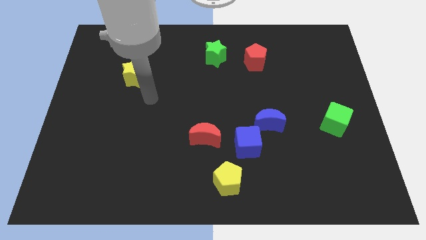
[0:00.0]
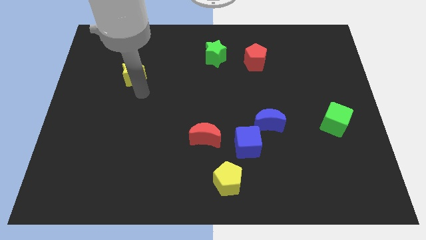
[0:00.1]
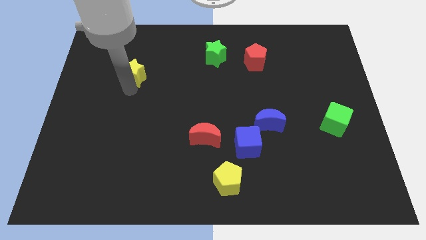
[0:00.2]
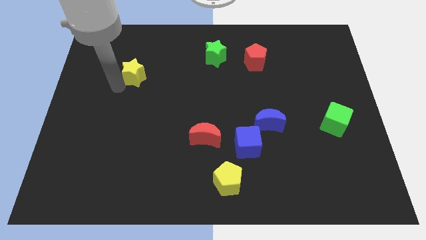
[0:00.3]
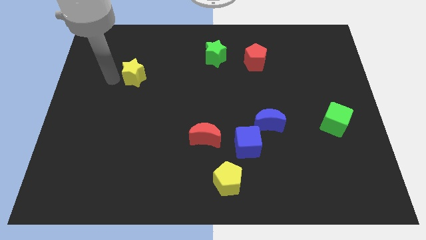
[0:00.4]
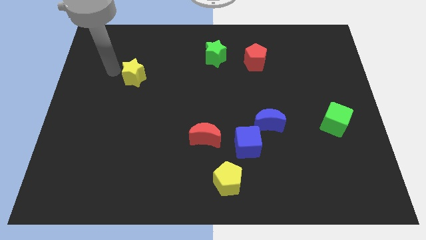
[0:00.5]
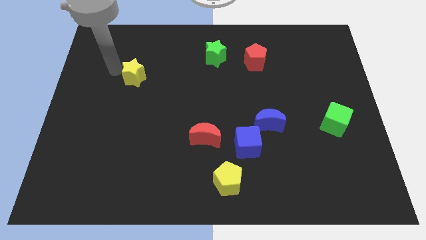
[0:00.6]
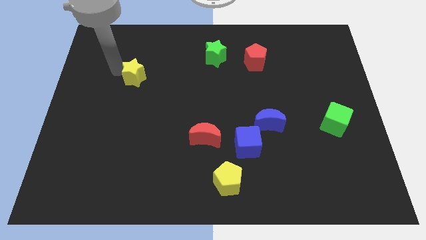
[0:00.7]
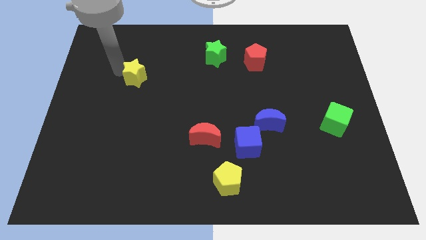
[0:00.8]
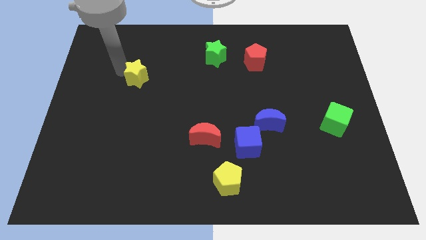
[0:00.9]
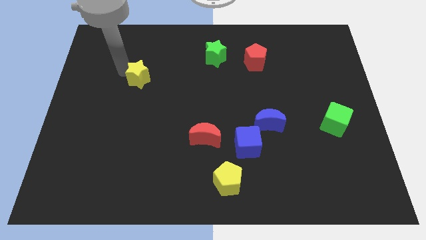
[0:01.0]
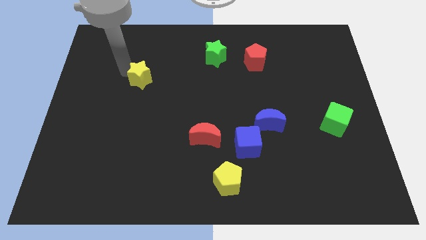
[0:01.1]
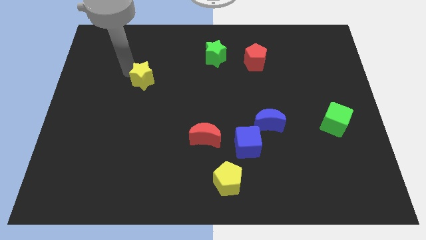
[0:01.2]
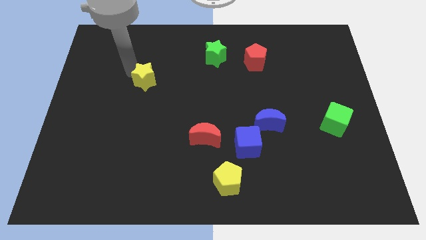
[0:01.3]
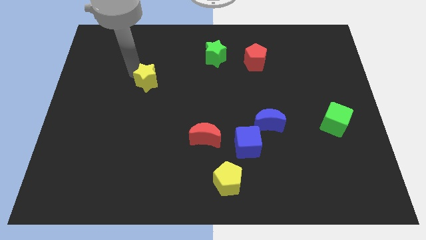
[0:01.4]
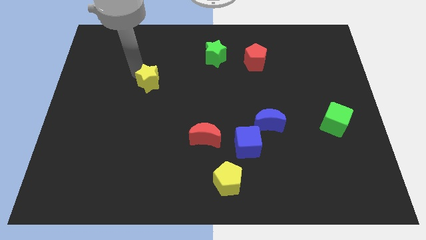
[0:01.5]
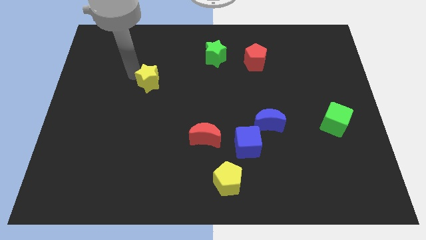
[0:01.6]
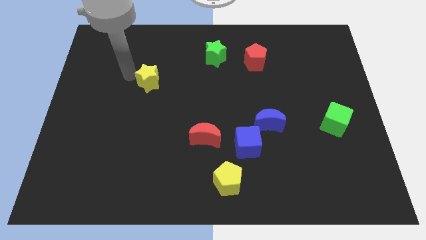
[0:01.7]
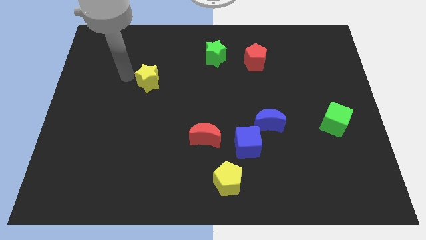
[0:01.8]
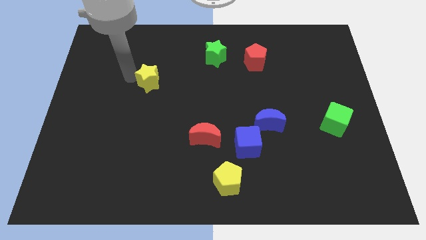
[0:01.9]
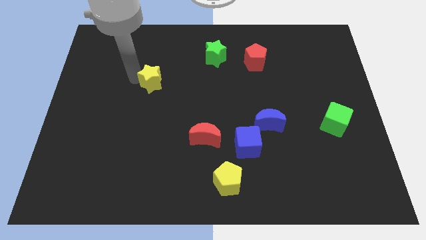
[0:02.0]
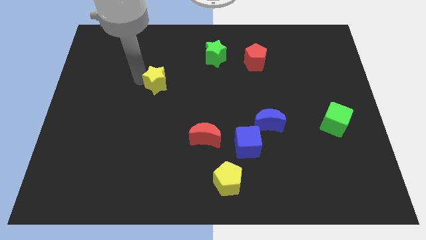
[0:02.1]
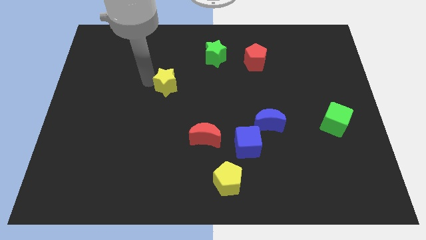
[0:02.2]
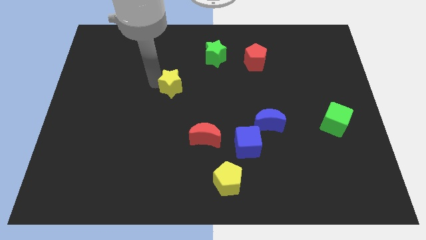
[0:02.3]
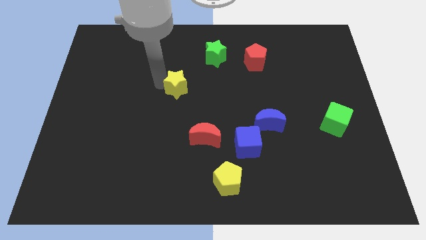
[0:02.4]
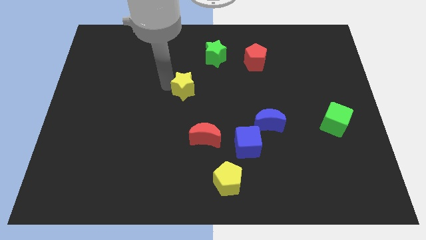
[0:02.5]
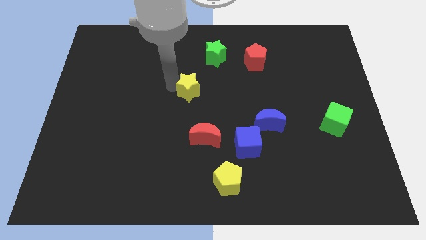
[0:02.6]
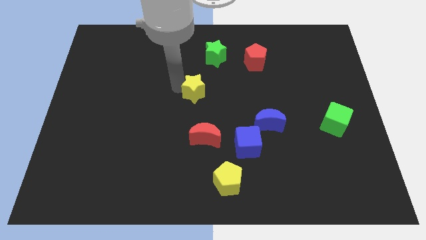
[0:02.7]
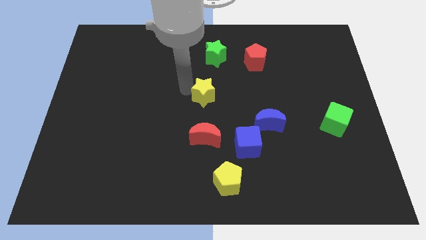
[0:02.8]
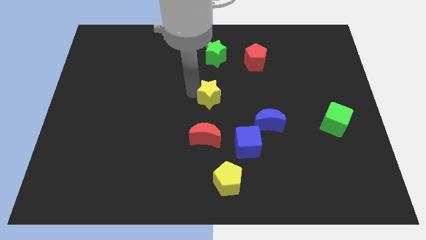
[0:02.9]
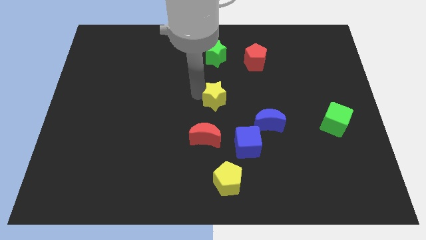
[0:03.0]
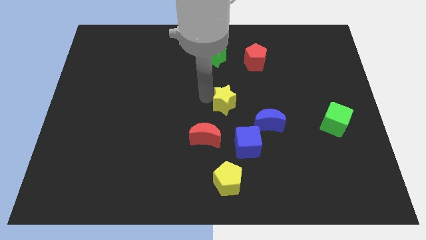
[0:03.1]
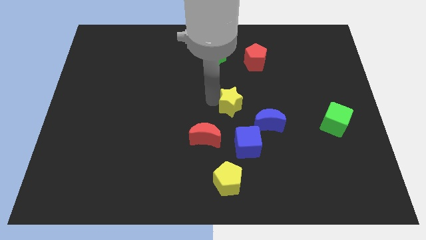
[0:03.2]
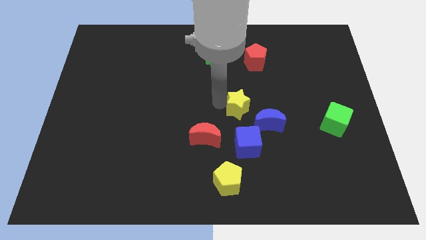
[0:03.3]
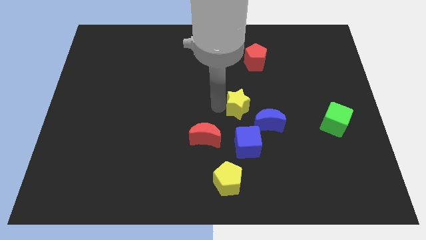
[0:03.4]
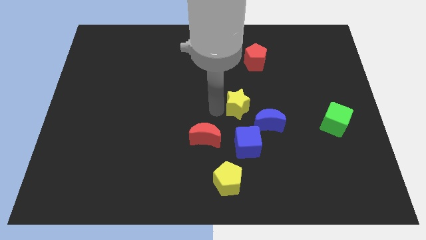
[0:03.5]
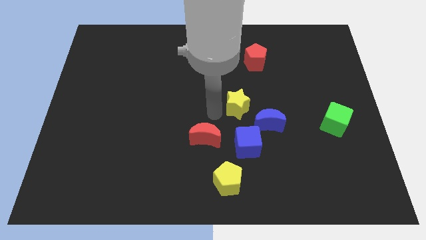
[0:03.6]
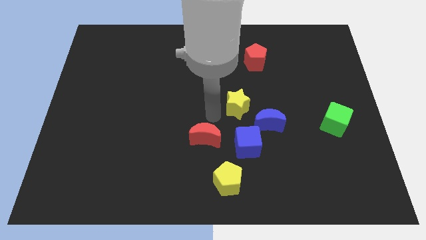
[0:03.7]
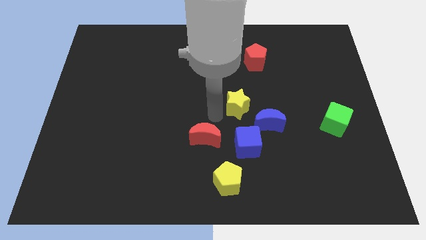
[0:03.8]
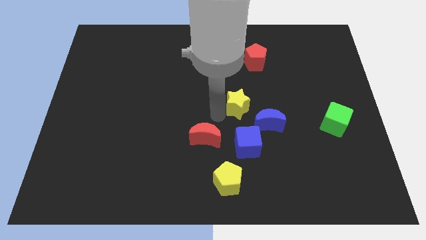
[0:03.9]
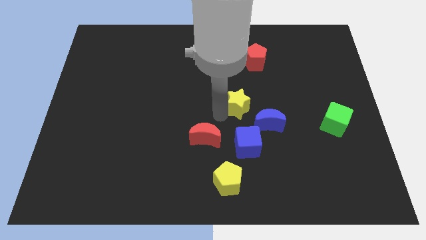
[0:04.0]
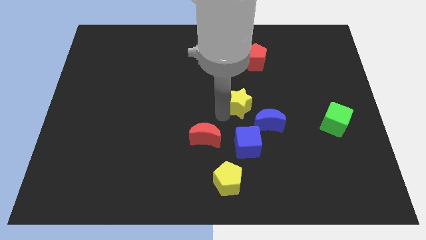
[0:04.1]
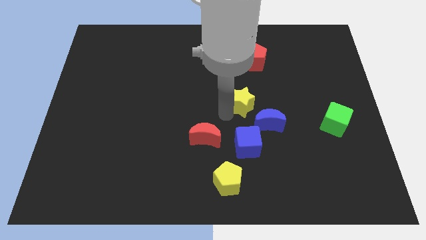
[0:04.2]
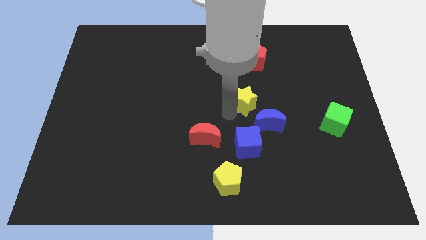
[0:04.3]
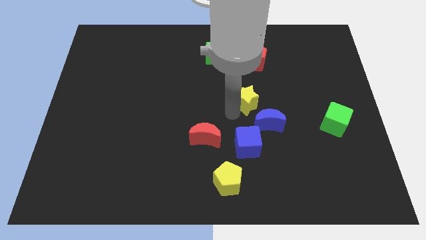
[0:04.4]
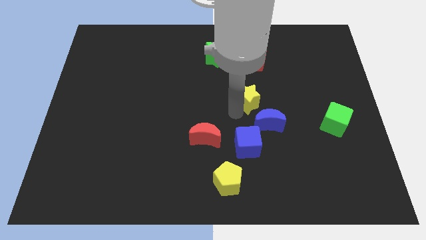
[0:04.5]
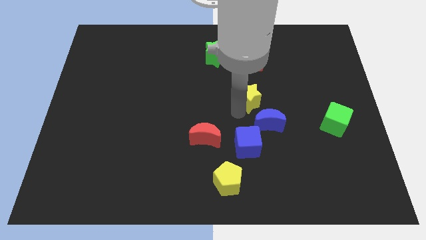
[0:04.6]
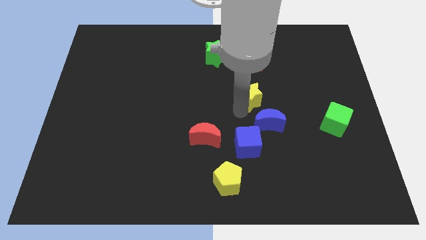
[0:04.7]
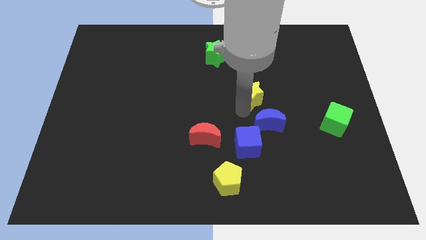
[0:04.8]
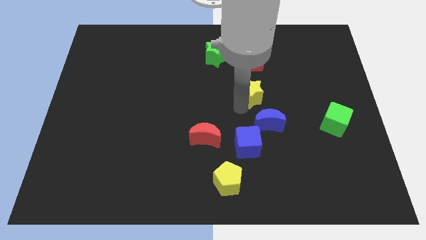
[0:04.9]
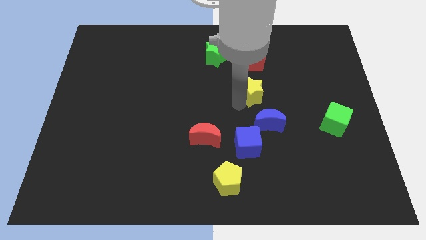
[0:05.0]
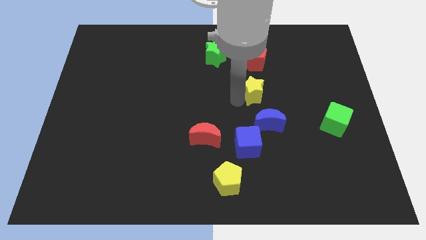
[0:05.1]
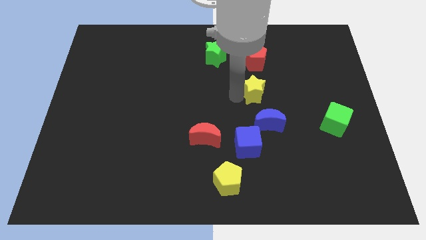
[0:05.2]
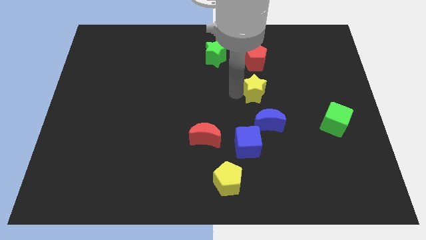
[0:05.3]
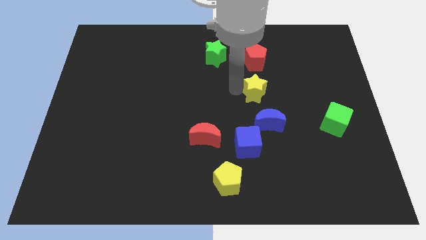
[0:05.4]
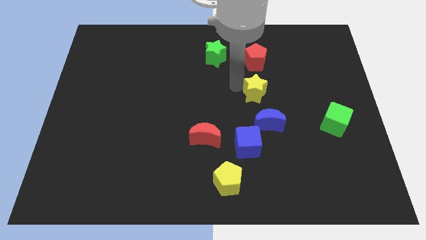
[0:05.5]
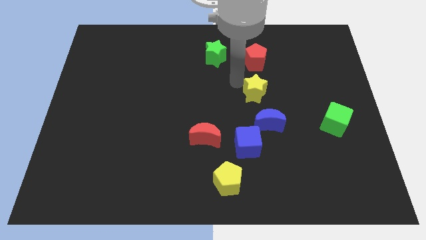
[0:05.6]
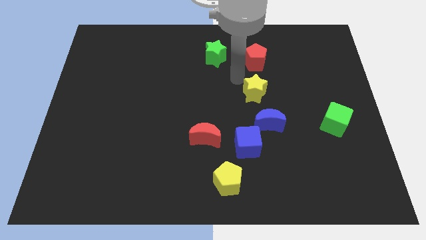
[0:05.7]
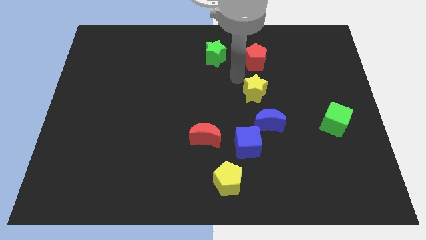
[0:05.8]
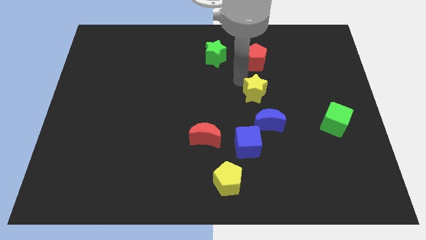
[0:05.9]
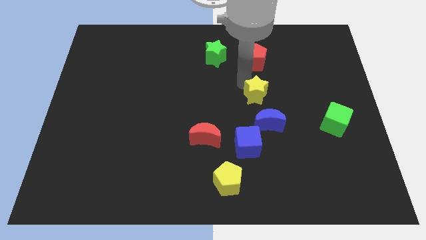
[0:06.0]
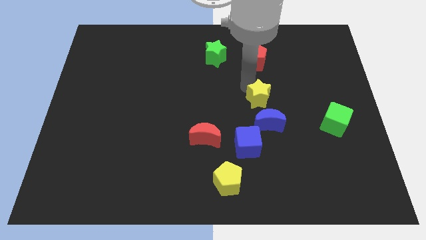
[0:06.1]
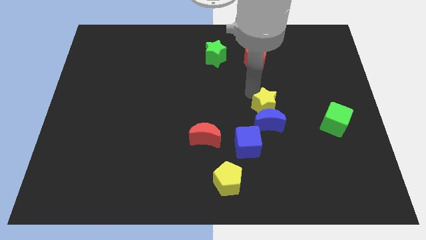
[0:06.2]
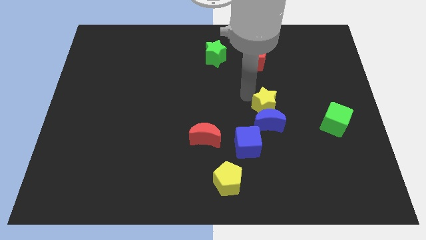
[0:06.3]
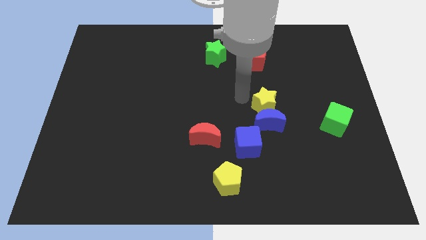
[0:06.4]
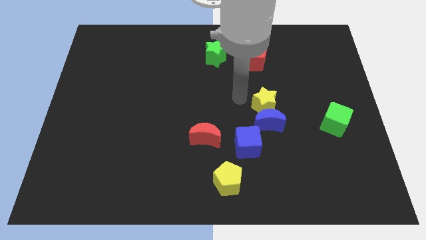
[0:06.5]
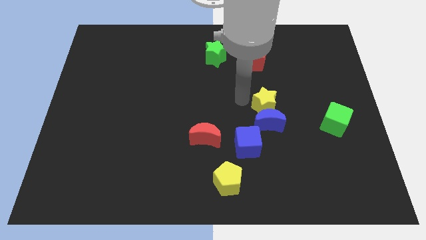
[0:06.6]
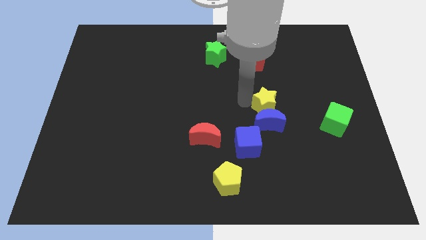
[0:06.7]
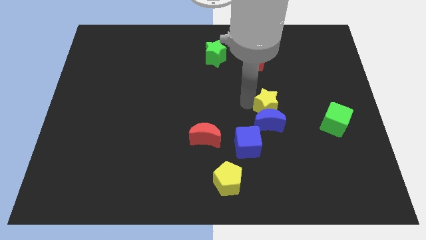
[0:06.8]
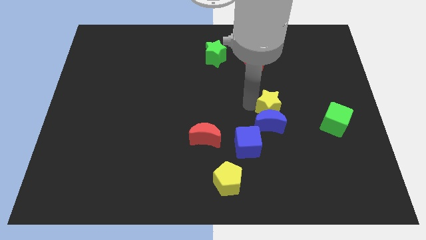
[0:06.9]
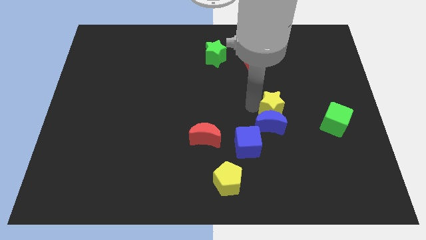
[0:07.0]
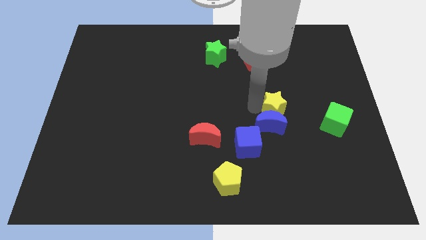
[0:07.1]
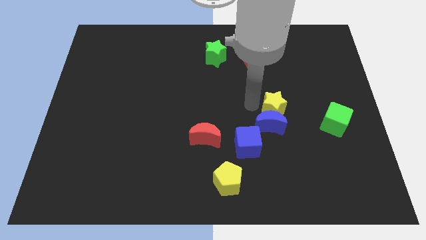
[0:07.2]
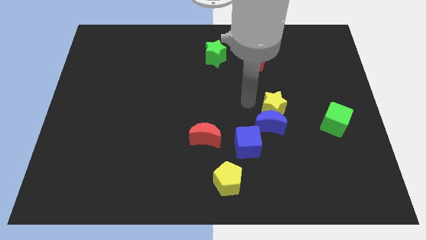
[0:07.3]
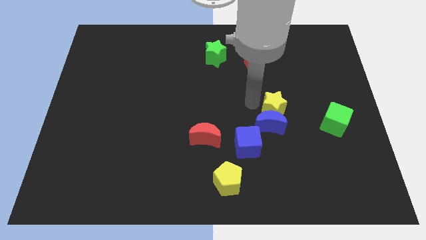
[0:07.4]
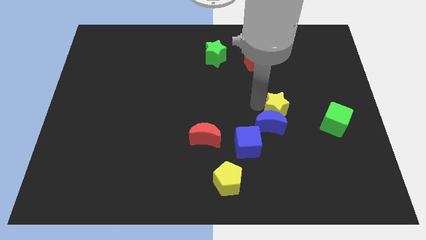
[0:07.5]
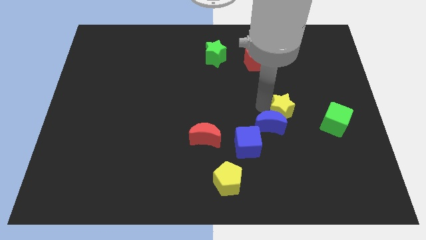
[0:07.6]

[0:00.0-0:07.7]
put the yellow star to the right side of the blue moon
